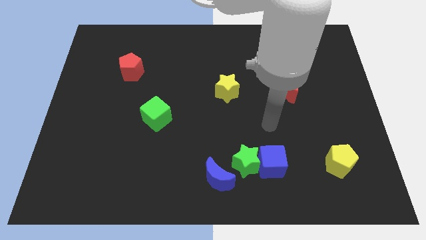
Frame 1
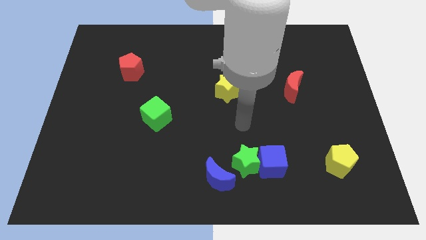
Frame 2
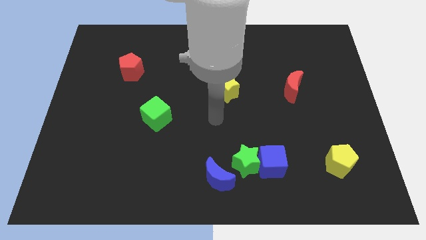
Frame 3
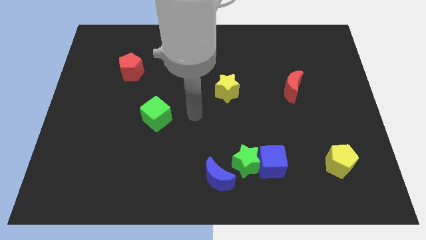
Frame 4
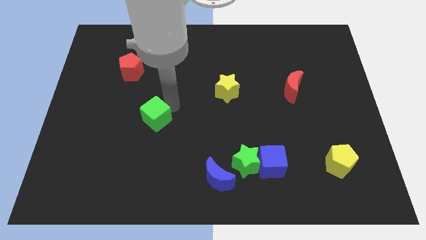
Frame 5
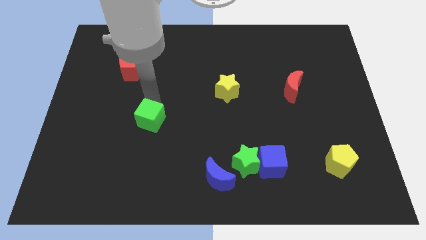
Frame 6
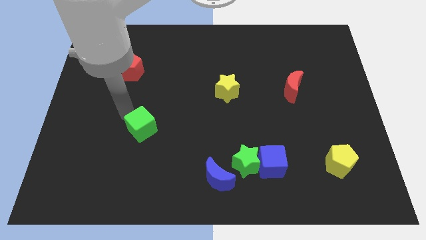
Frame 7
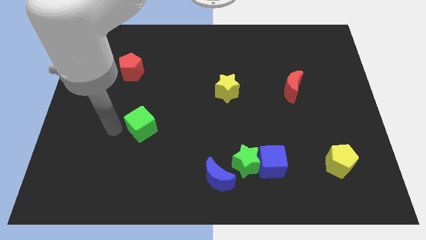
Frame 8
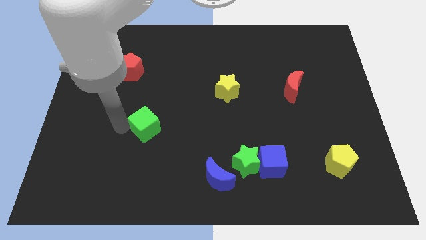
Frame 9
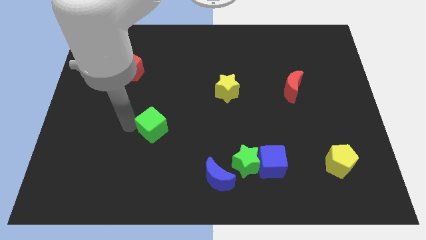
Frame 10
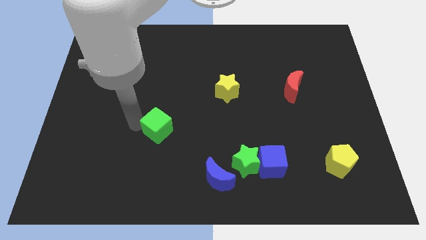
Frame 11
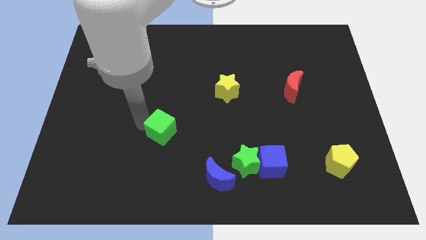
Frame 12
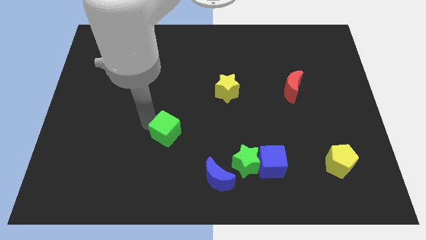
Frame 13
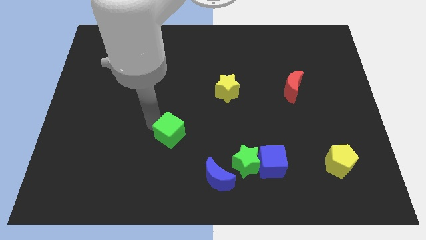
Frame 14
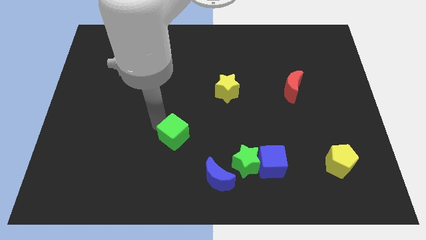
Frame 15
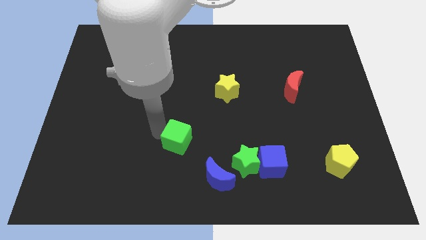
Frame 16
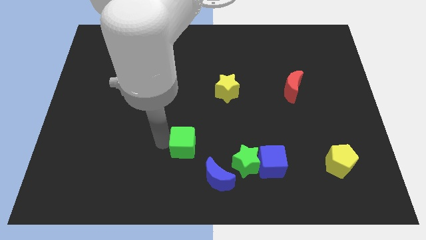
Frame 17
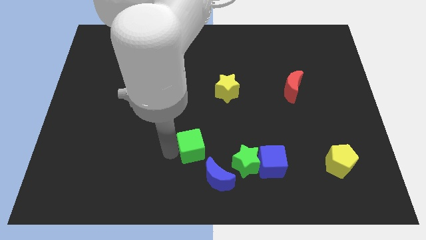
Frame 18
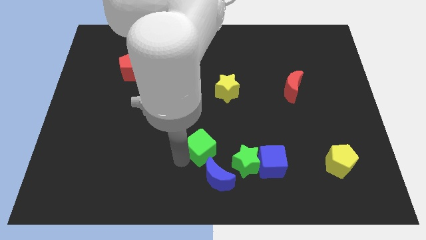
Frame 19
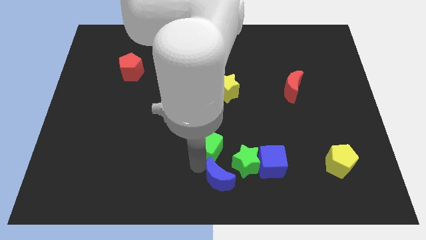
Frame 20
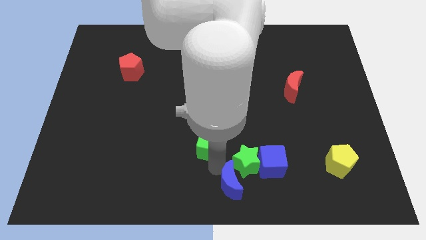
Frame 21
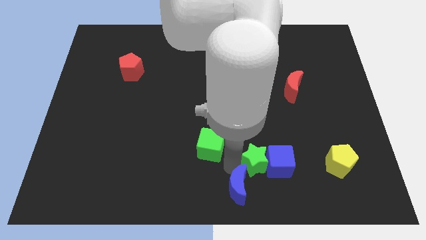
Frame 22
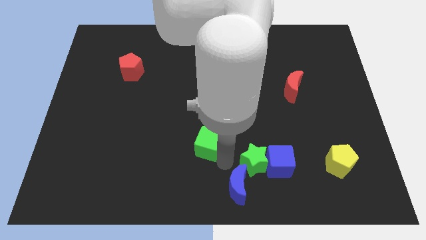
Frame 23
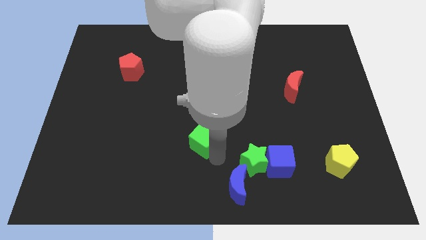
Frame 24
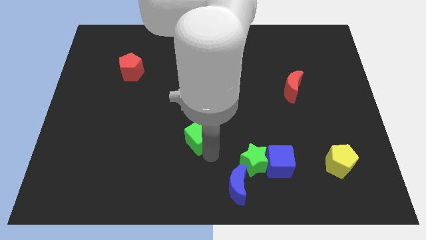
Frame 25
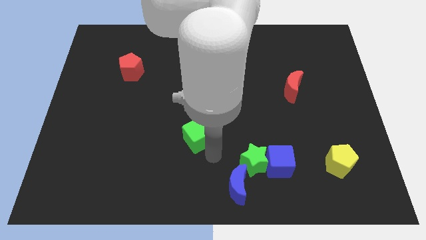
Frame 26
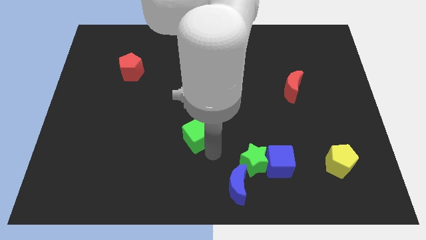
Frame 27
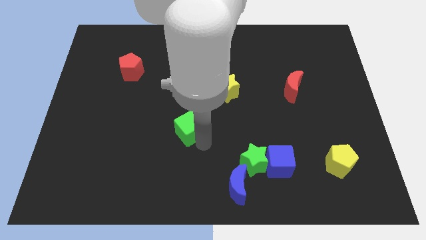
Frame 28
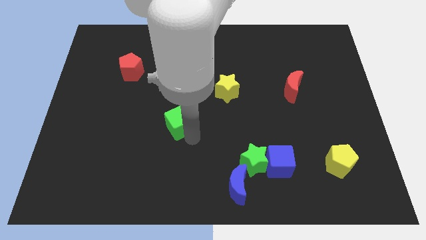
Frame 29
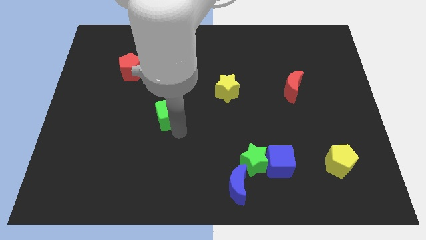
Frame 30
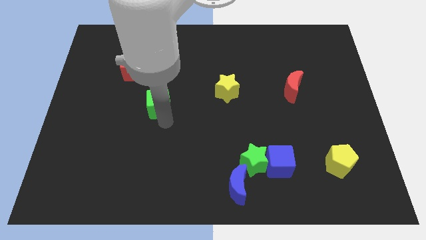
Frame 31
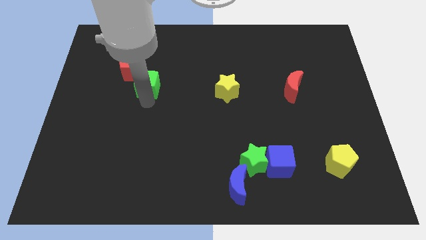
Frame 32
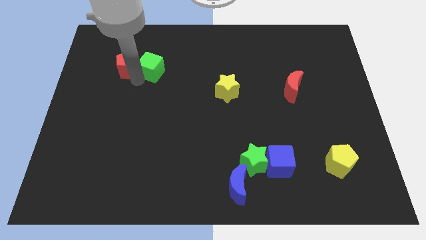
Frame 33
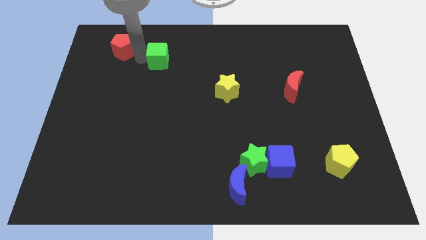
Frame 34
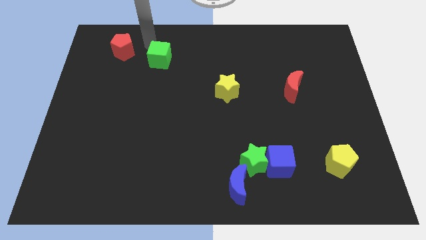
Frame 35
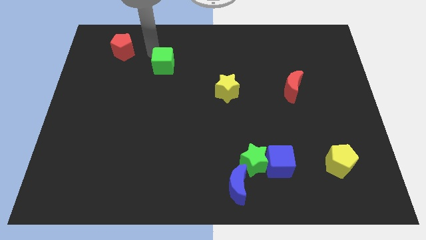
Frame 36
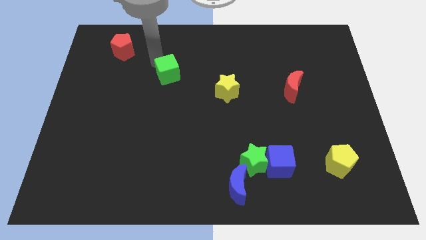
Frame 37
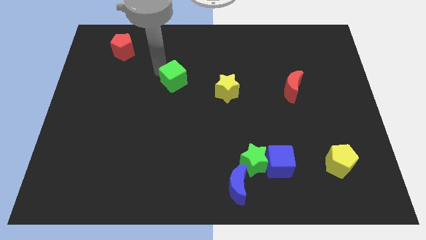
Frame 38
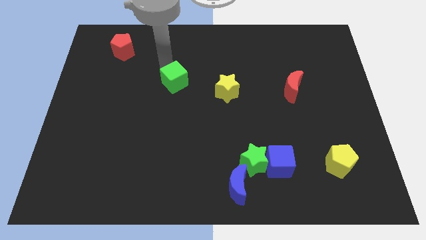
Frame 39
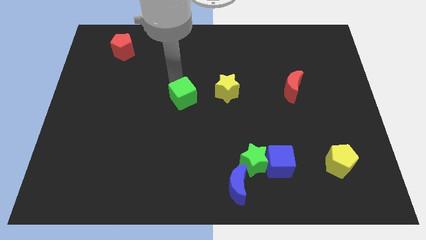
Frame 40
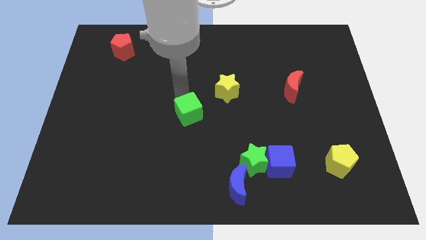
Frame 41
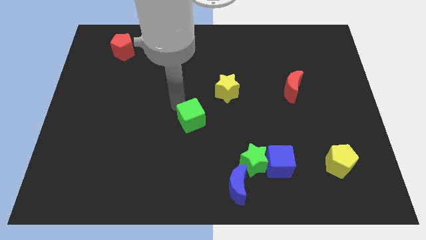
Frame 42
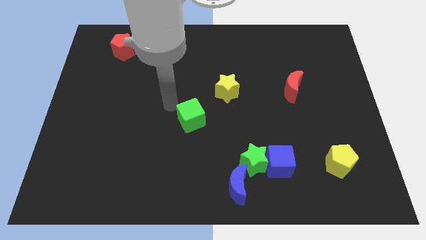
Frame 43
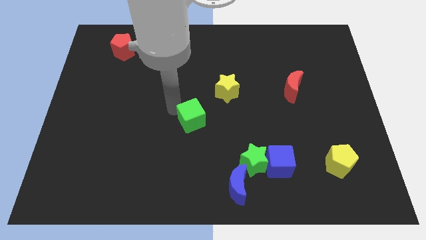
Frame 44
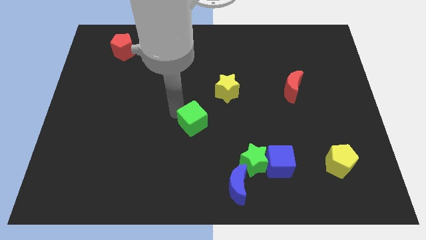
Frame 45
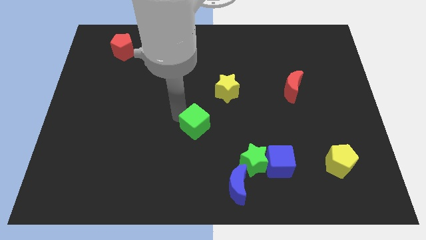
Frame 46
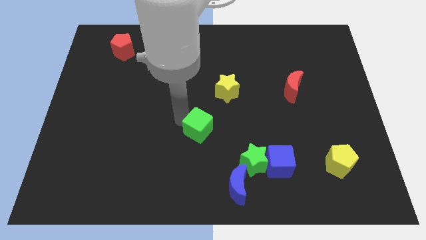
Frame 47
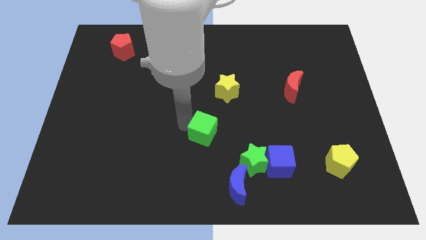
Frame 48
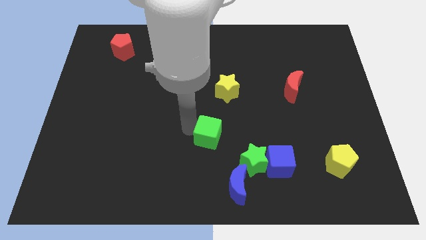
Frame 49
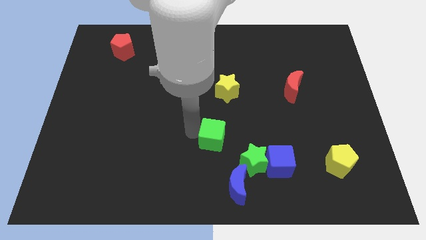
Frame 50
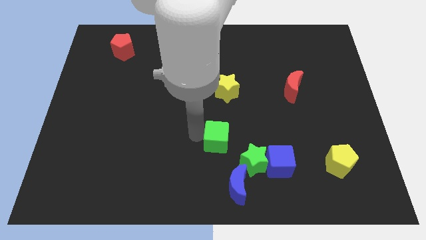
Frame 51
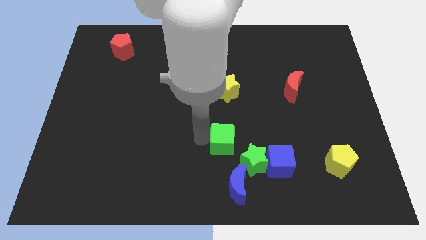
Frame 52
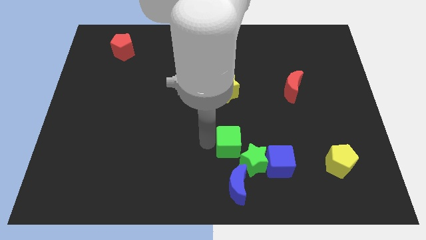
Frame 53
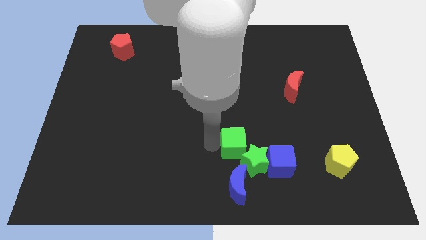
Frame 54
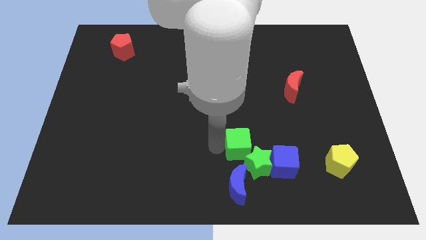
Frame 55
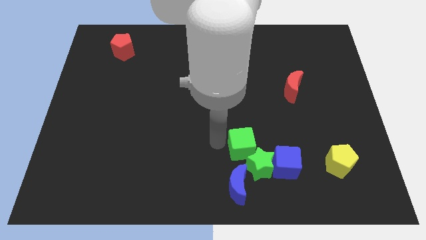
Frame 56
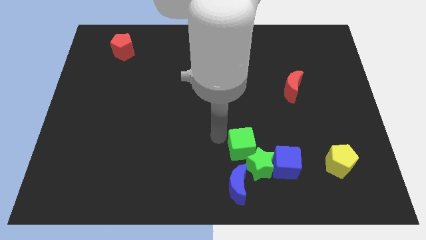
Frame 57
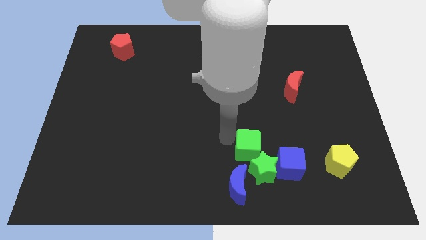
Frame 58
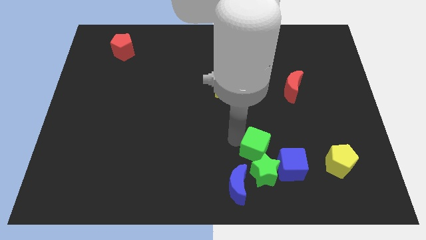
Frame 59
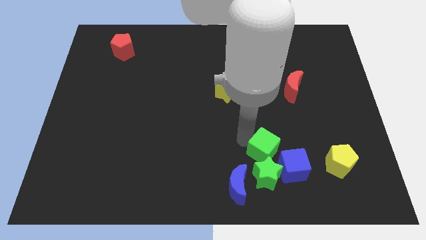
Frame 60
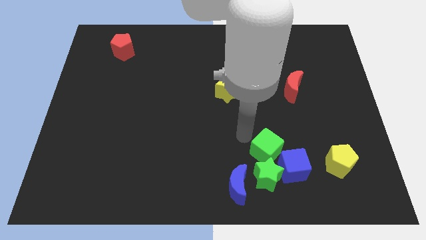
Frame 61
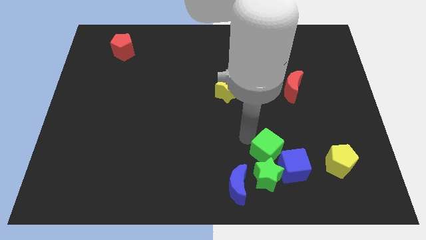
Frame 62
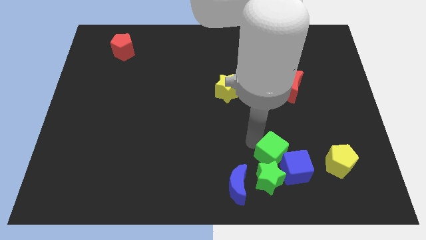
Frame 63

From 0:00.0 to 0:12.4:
slide the green cube close to the blue cube

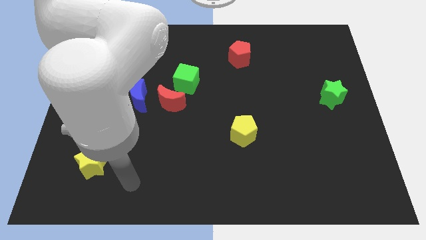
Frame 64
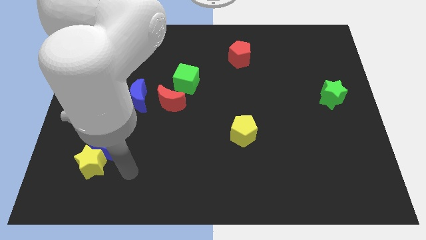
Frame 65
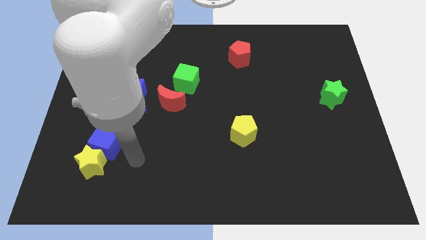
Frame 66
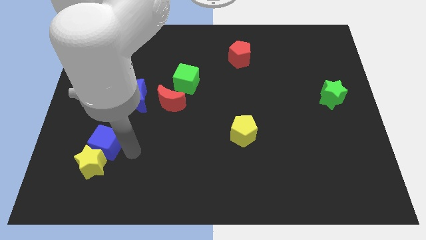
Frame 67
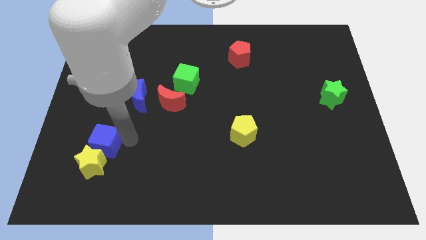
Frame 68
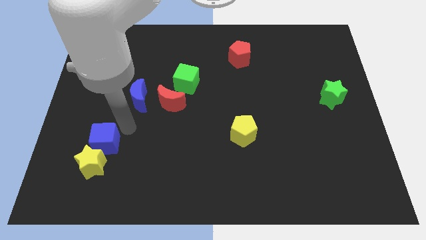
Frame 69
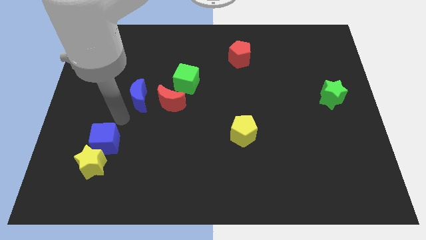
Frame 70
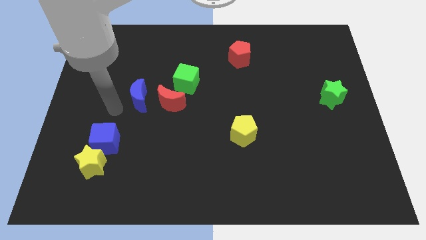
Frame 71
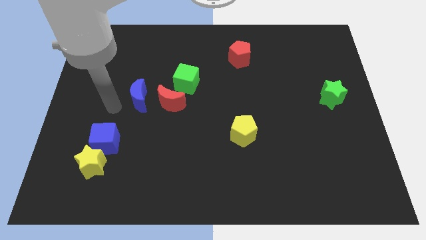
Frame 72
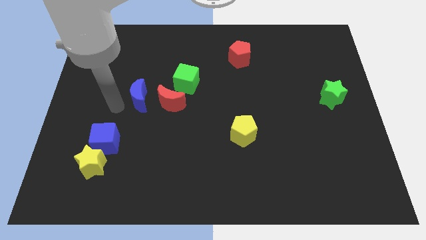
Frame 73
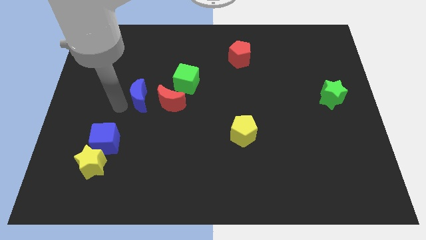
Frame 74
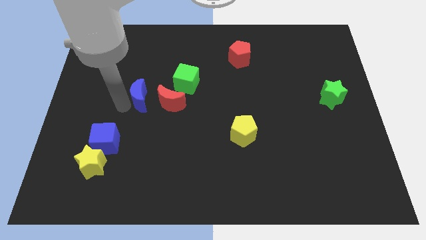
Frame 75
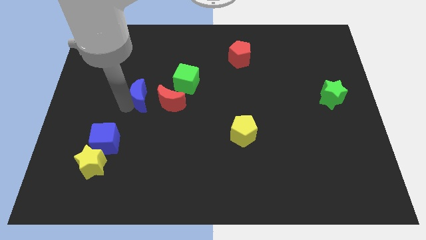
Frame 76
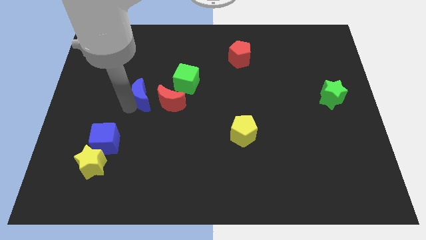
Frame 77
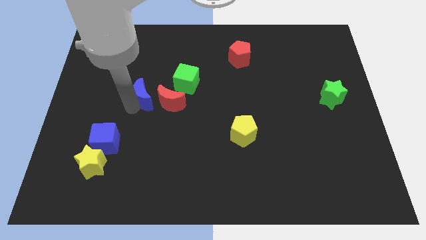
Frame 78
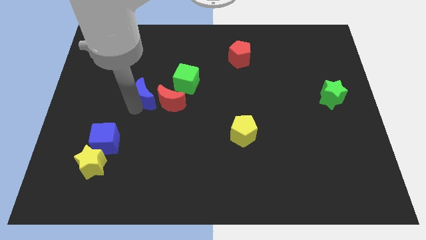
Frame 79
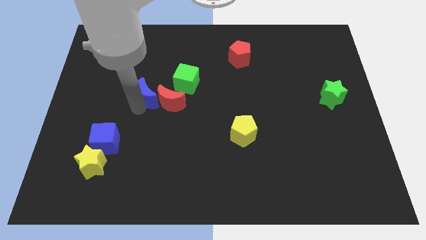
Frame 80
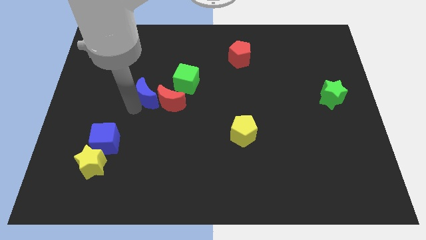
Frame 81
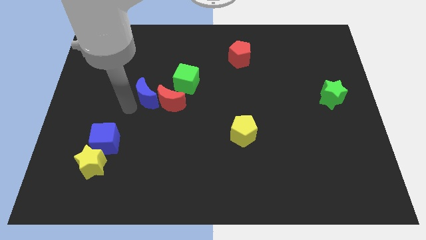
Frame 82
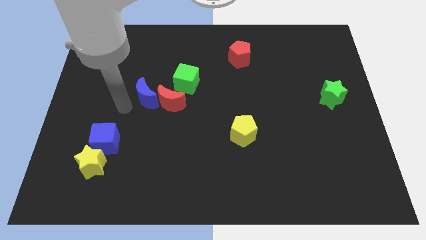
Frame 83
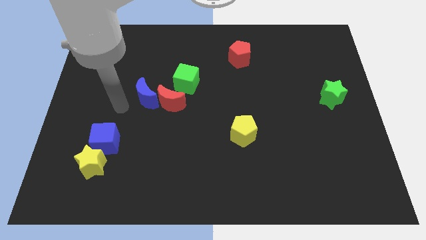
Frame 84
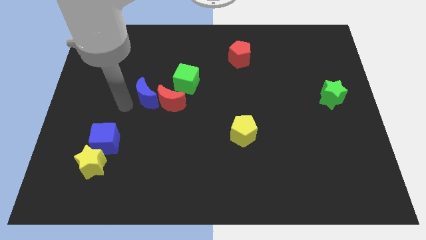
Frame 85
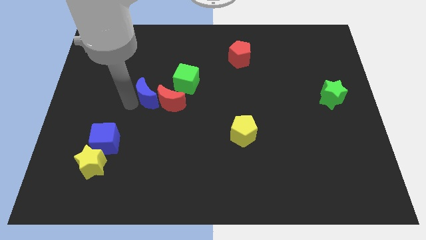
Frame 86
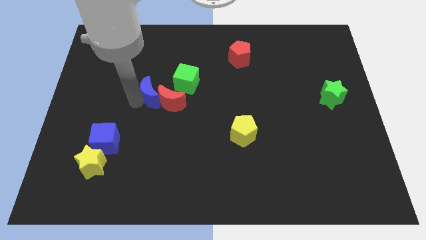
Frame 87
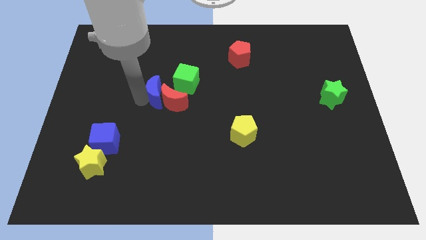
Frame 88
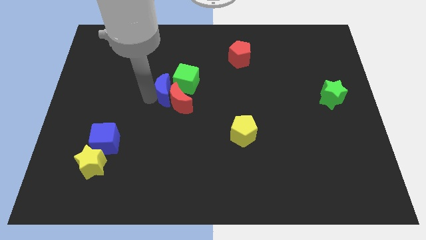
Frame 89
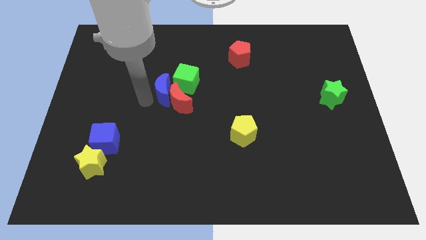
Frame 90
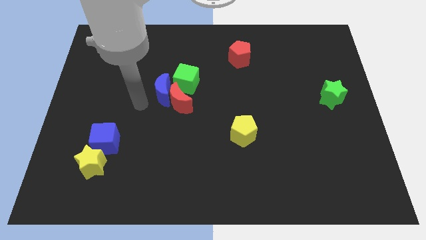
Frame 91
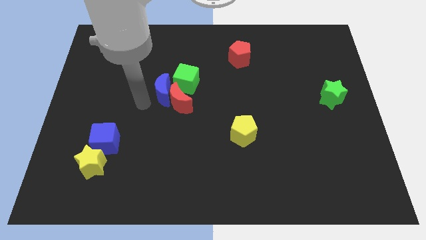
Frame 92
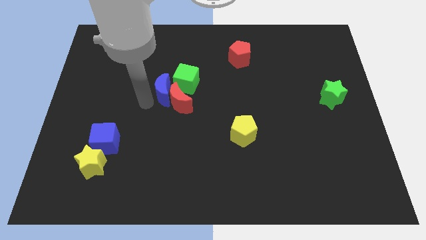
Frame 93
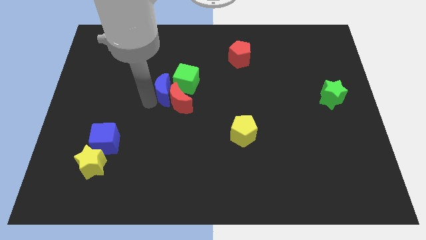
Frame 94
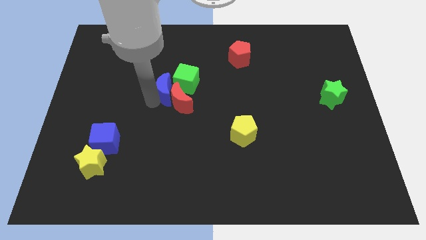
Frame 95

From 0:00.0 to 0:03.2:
move the blue moon towards the green cube
